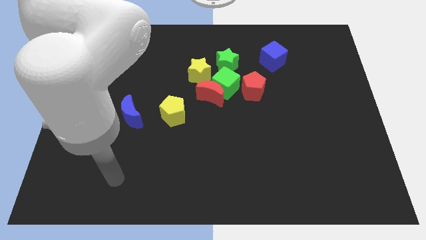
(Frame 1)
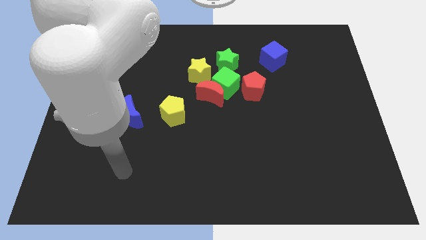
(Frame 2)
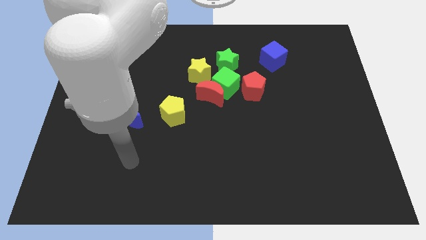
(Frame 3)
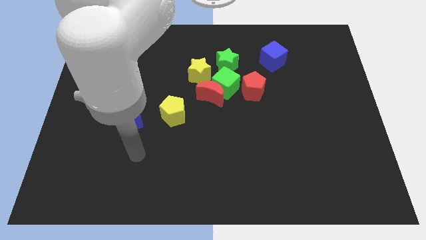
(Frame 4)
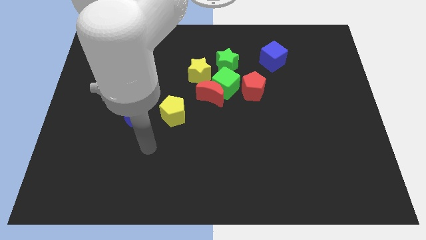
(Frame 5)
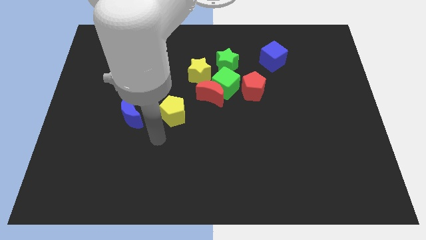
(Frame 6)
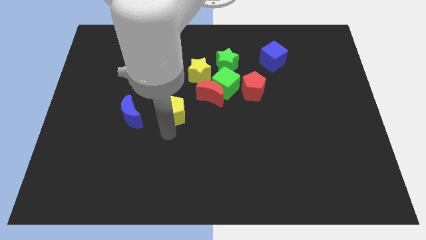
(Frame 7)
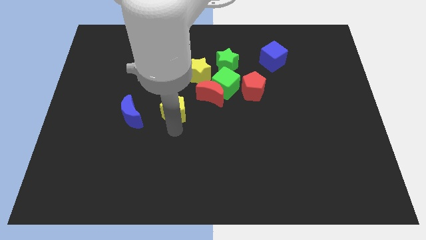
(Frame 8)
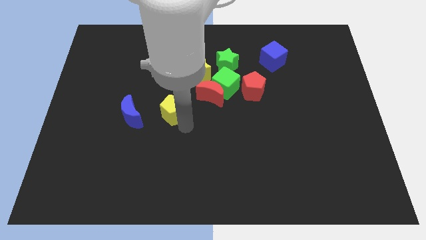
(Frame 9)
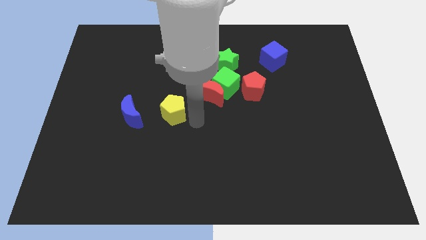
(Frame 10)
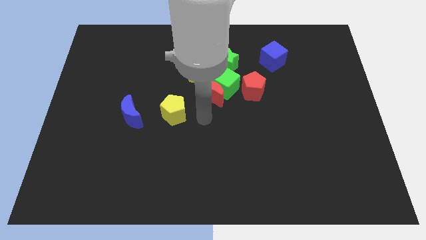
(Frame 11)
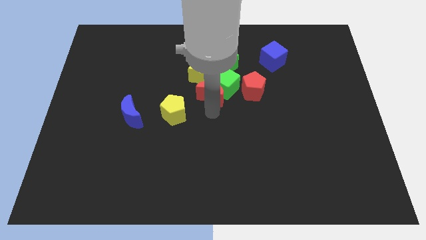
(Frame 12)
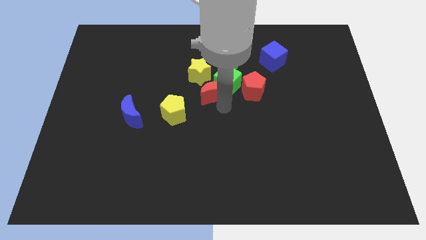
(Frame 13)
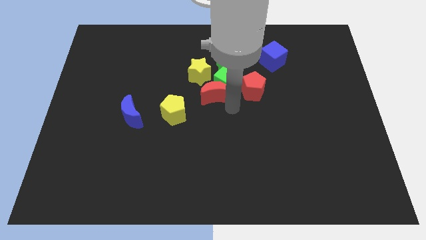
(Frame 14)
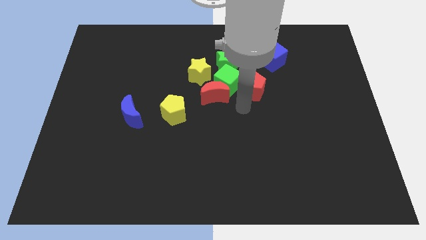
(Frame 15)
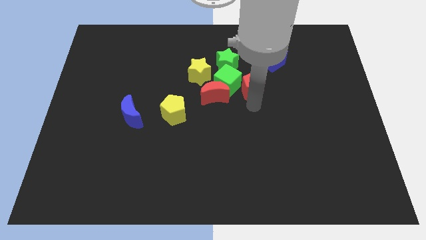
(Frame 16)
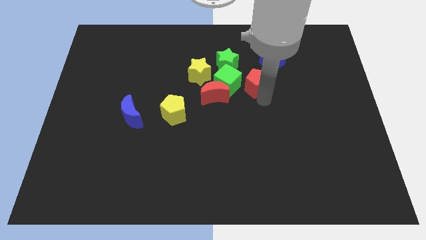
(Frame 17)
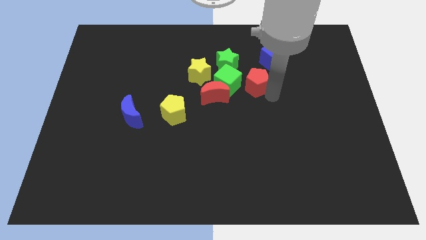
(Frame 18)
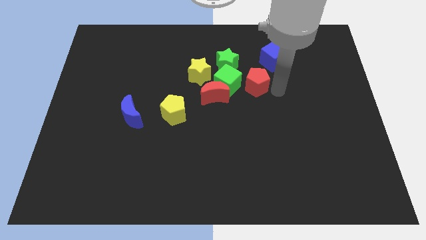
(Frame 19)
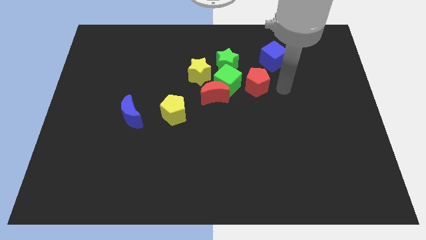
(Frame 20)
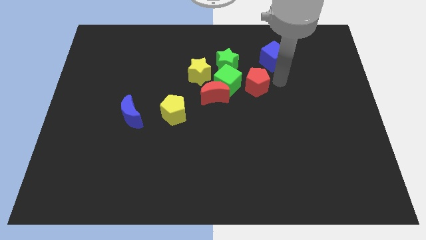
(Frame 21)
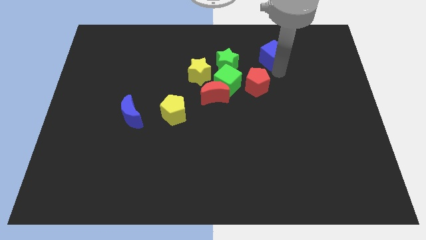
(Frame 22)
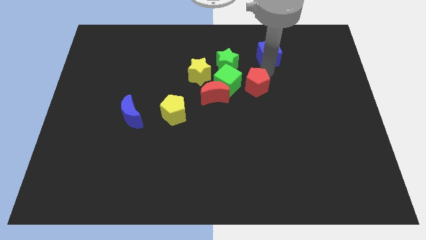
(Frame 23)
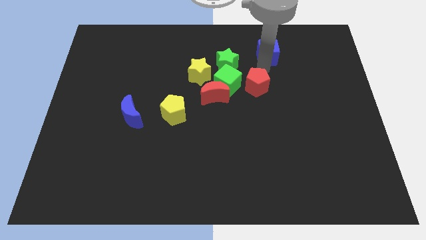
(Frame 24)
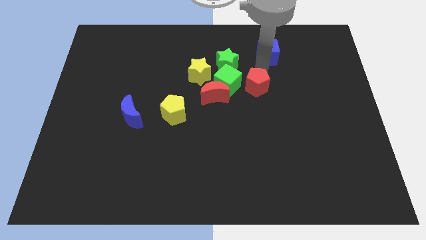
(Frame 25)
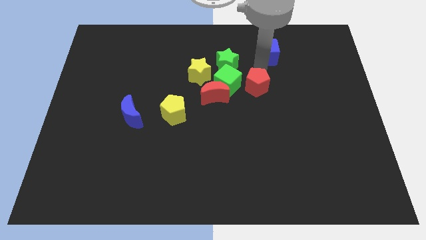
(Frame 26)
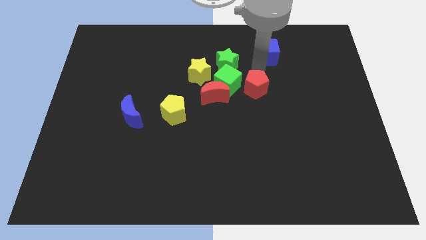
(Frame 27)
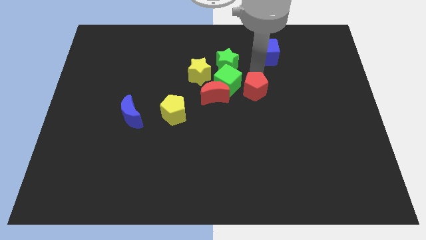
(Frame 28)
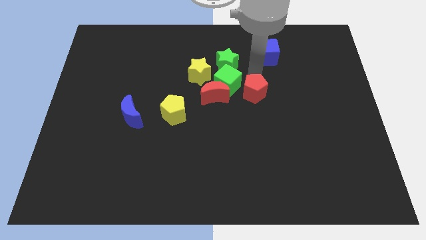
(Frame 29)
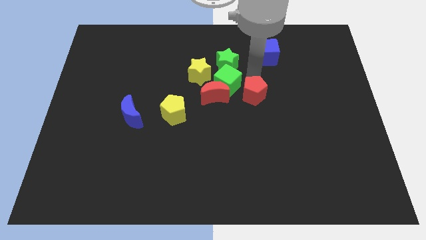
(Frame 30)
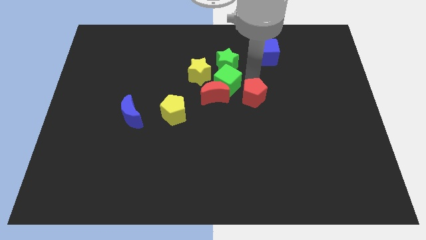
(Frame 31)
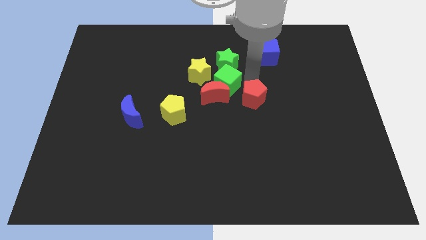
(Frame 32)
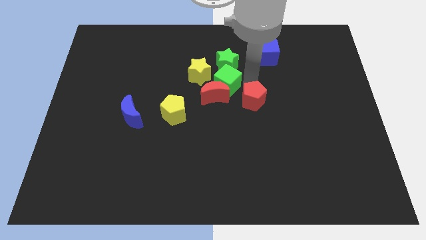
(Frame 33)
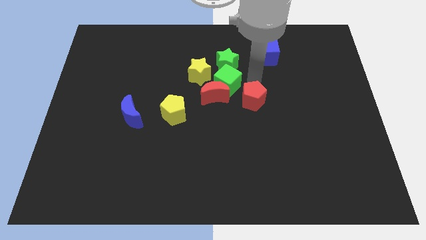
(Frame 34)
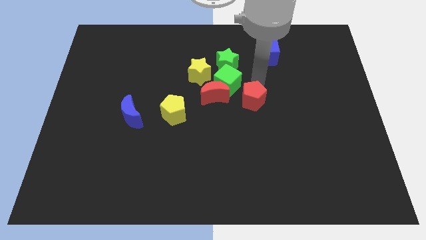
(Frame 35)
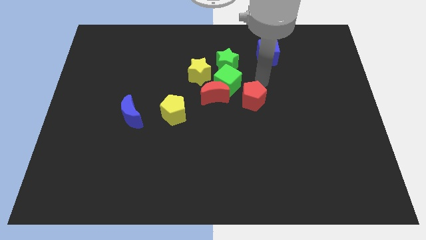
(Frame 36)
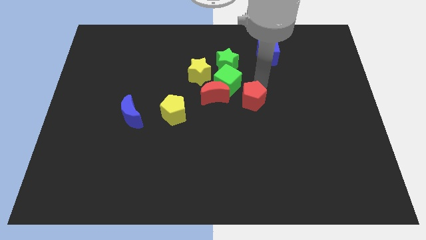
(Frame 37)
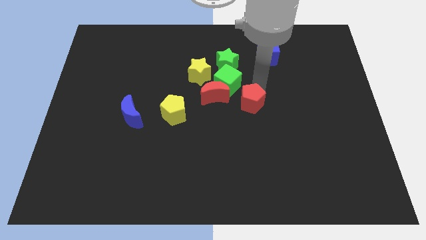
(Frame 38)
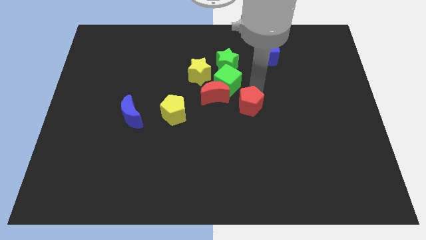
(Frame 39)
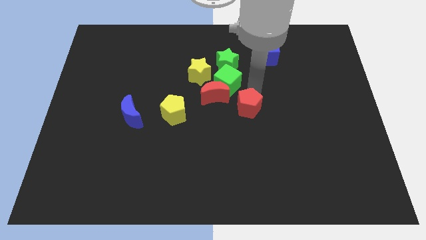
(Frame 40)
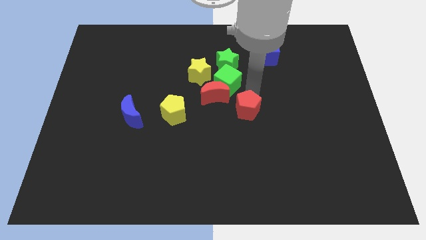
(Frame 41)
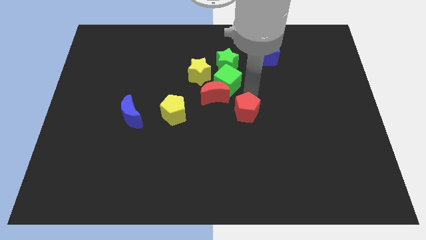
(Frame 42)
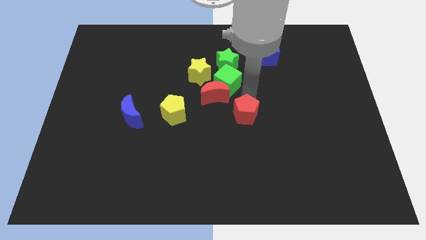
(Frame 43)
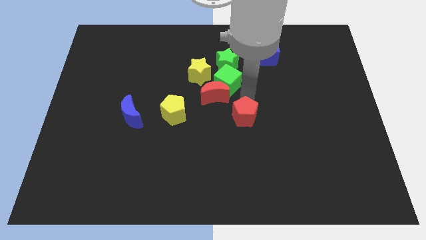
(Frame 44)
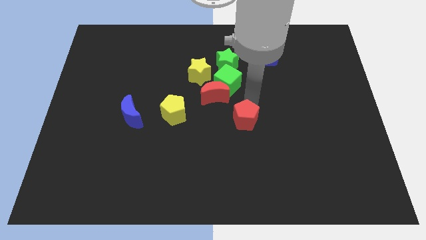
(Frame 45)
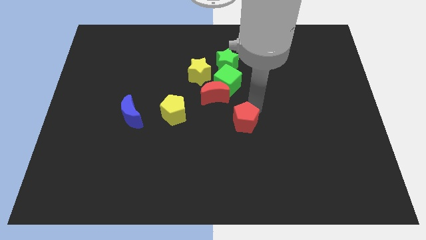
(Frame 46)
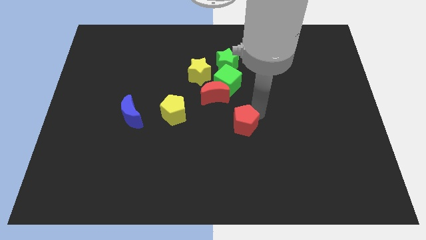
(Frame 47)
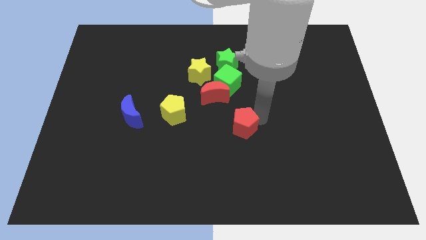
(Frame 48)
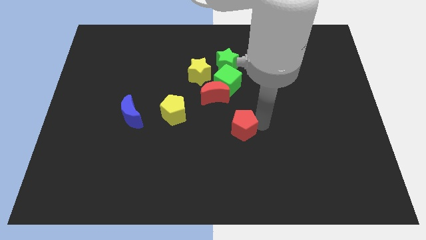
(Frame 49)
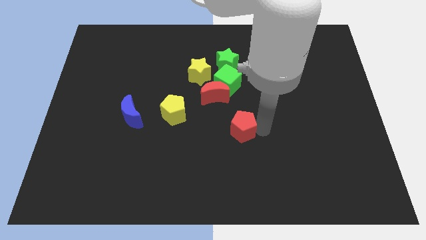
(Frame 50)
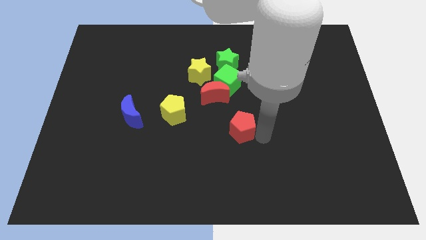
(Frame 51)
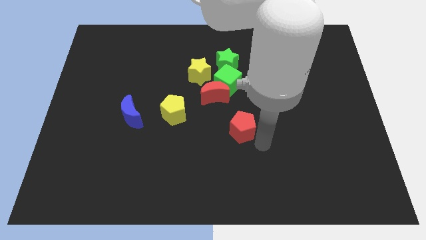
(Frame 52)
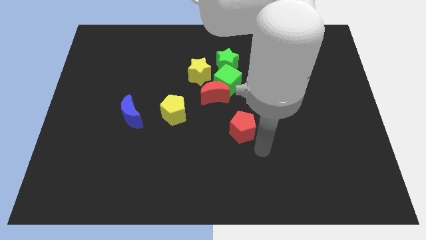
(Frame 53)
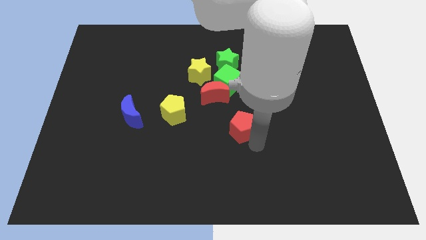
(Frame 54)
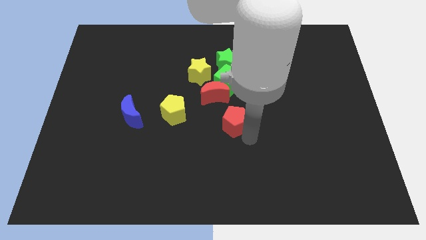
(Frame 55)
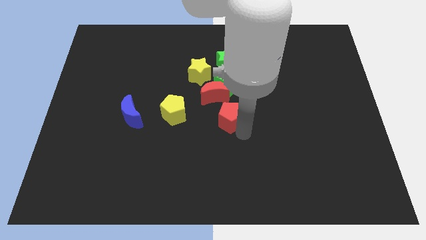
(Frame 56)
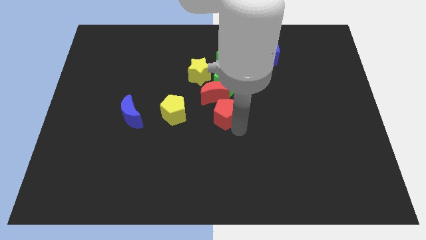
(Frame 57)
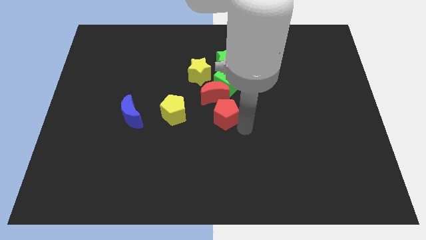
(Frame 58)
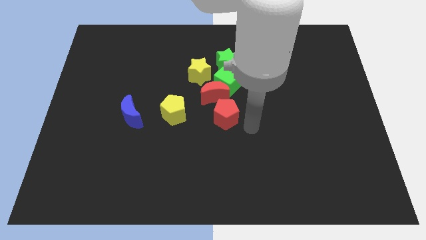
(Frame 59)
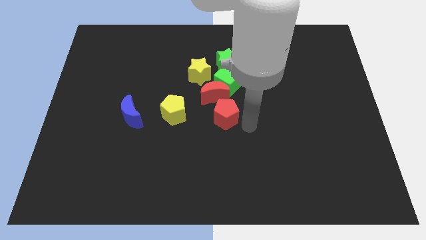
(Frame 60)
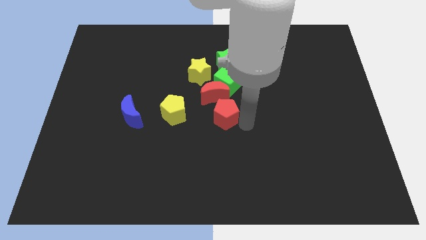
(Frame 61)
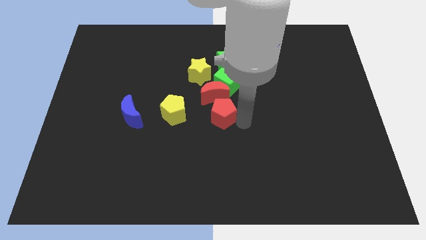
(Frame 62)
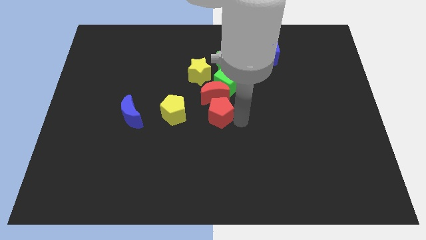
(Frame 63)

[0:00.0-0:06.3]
slide the red pentagon to the bottom side of the yellow star

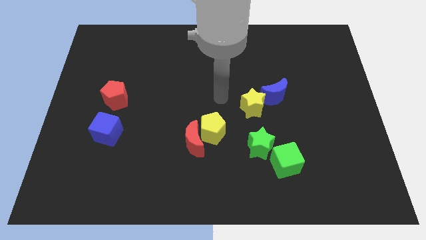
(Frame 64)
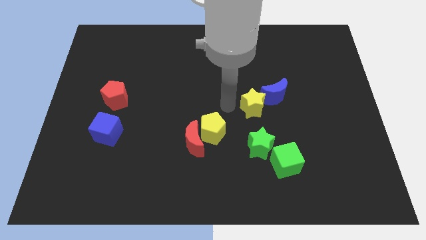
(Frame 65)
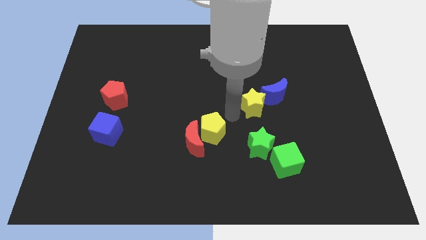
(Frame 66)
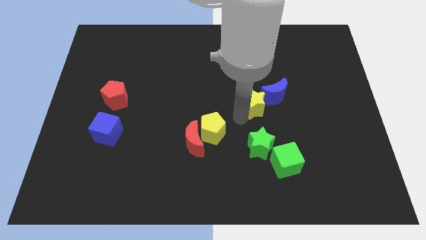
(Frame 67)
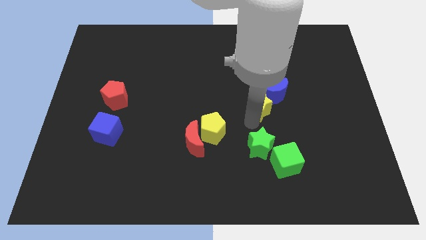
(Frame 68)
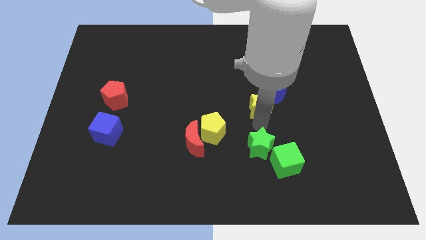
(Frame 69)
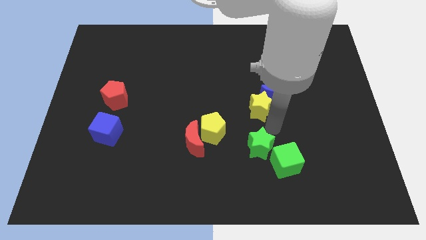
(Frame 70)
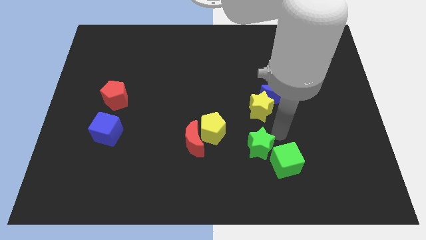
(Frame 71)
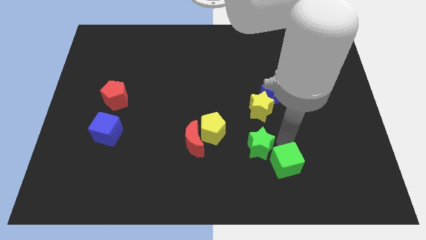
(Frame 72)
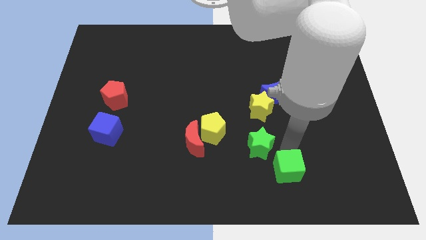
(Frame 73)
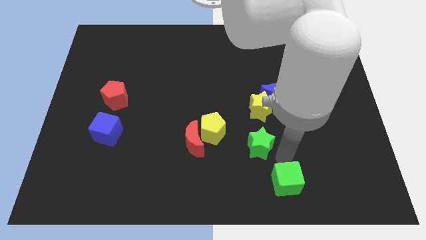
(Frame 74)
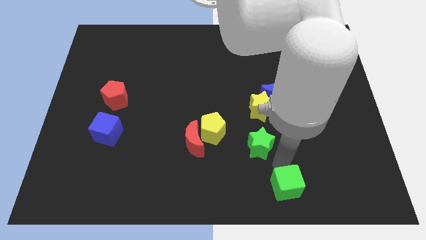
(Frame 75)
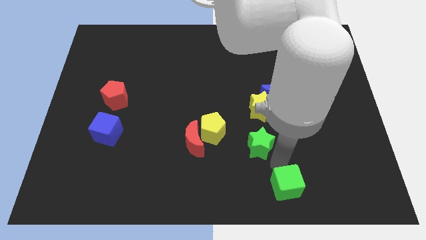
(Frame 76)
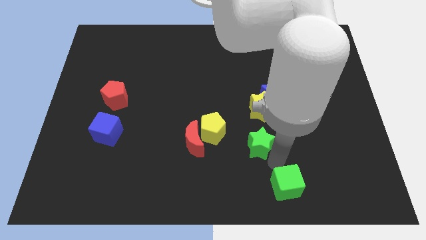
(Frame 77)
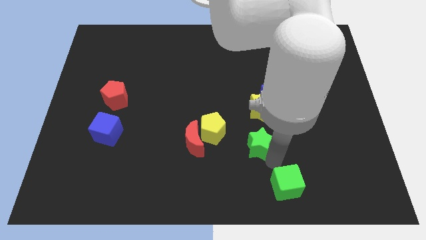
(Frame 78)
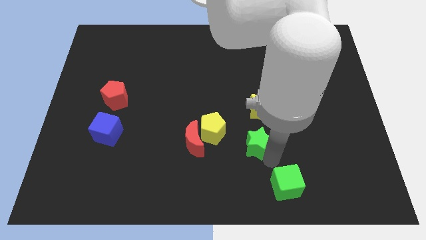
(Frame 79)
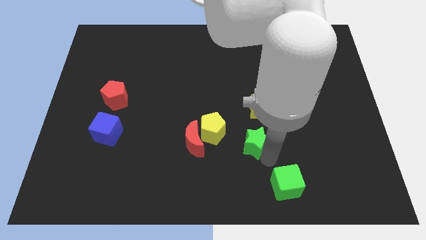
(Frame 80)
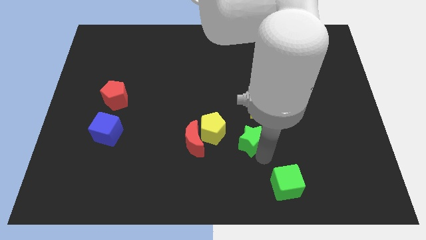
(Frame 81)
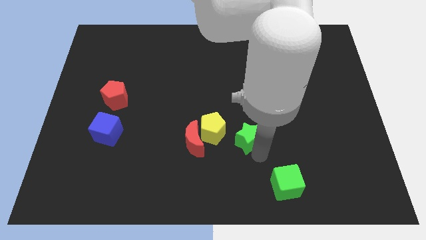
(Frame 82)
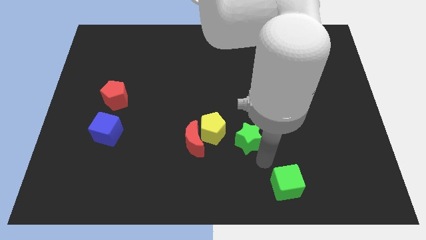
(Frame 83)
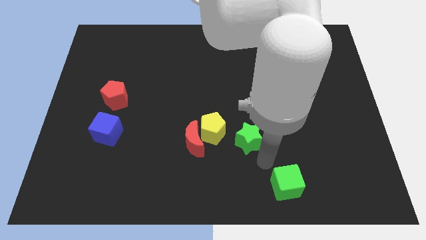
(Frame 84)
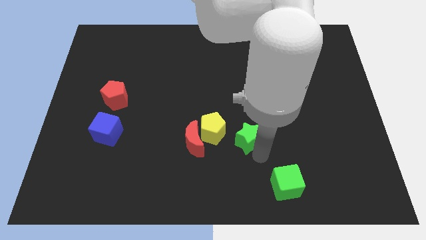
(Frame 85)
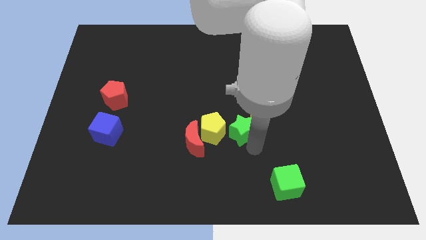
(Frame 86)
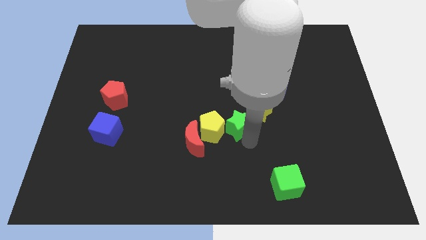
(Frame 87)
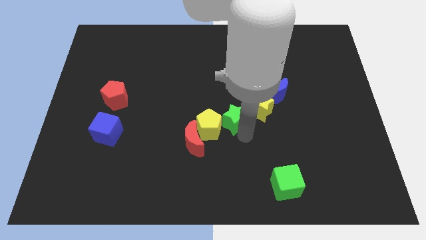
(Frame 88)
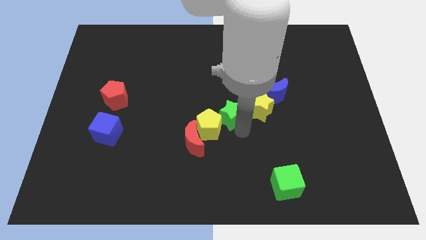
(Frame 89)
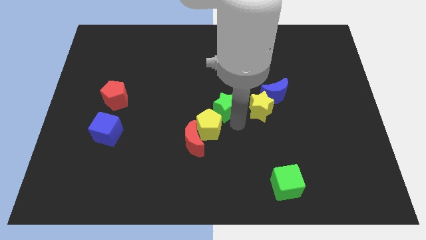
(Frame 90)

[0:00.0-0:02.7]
slide the green star to the top of the yellow pentagon

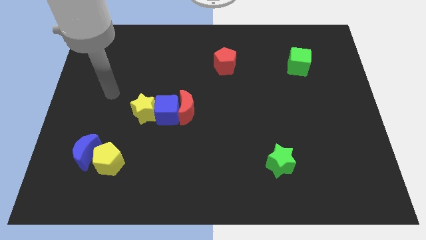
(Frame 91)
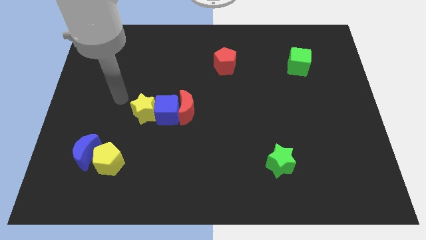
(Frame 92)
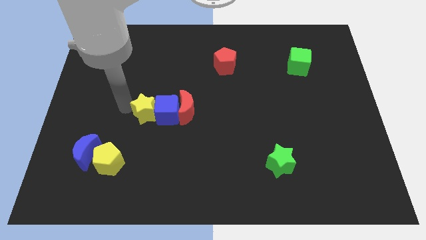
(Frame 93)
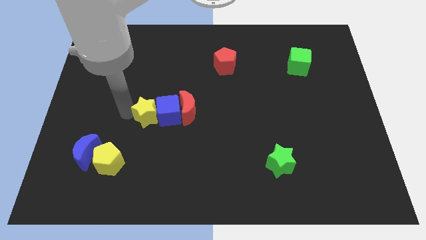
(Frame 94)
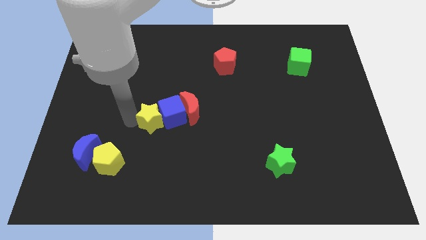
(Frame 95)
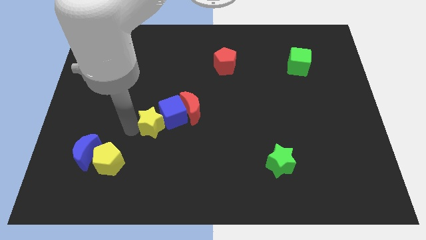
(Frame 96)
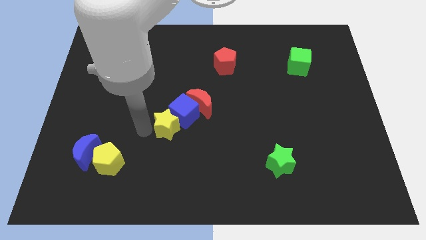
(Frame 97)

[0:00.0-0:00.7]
push the red moon to the top side of the blue cube
